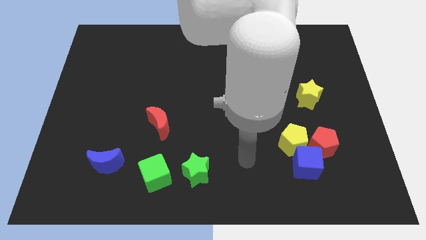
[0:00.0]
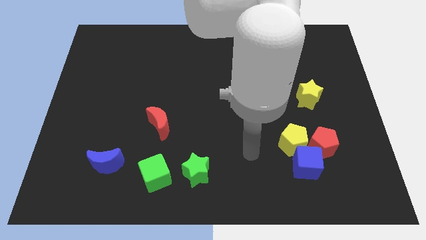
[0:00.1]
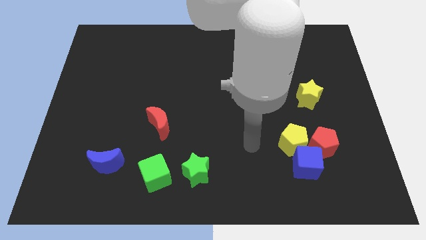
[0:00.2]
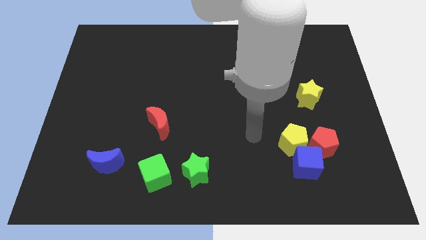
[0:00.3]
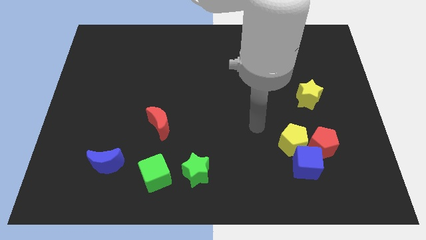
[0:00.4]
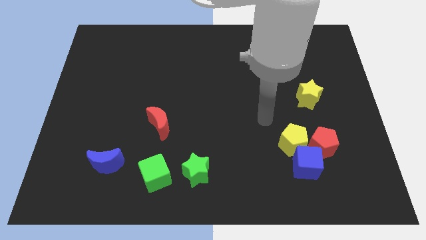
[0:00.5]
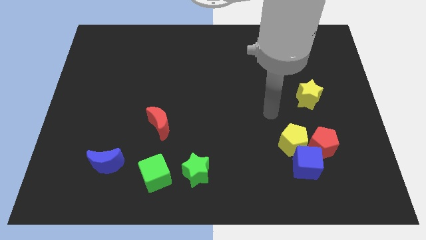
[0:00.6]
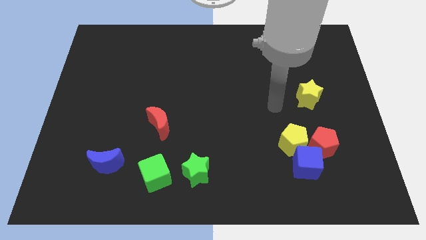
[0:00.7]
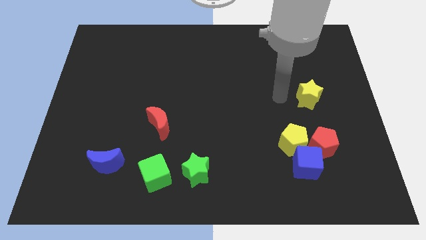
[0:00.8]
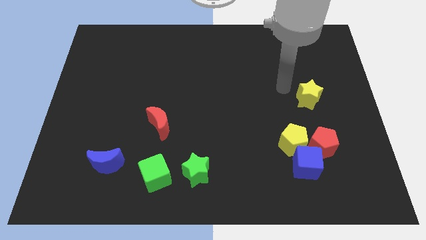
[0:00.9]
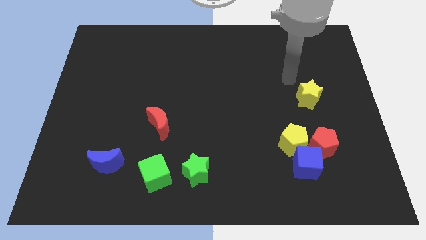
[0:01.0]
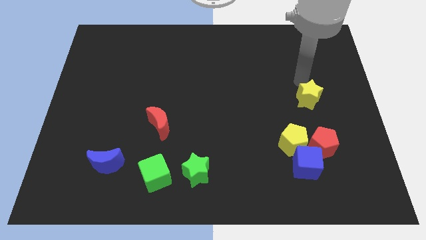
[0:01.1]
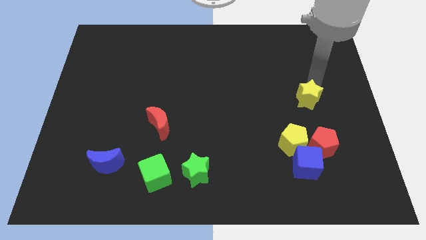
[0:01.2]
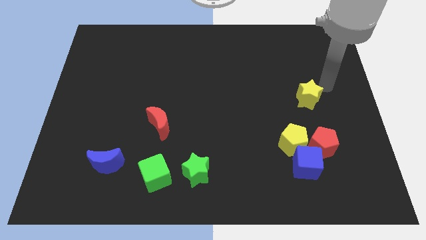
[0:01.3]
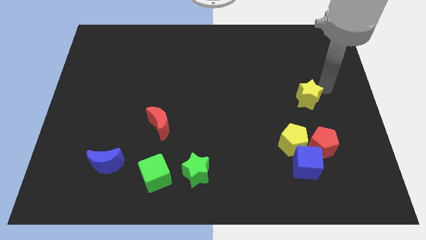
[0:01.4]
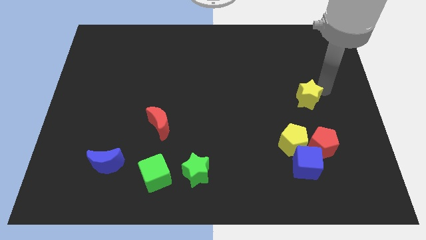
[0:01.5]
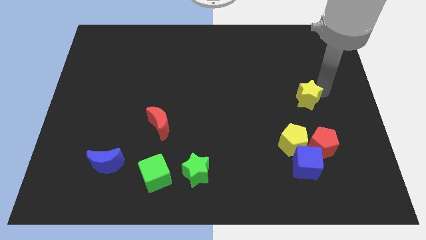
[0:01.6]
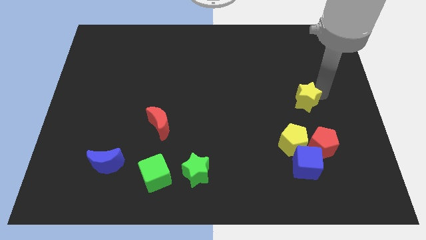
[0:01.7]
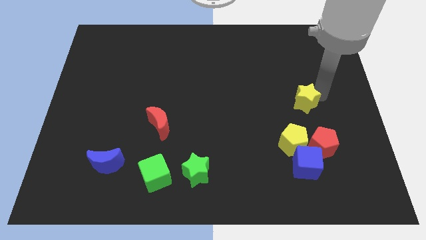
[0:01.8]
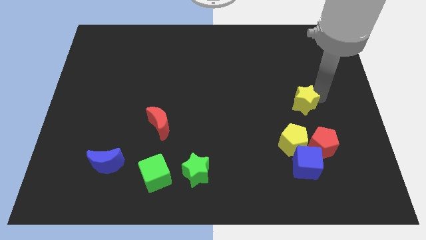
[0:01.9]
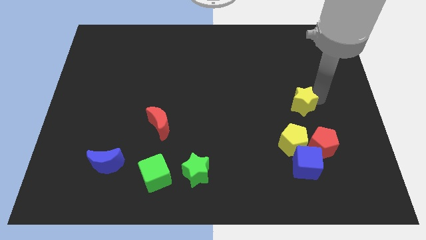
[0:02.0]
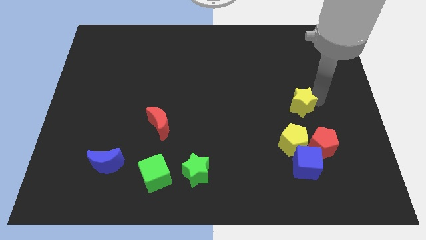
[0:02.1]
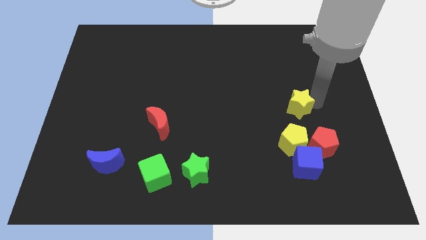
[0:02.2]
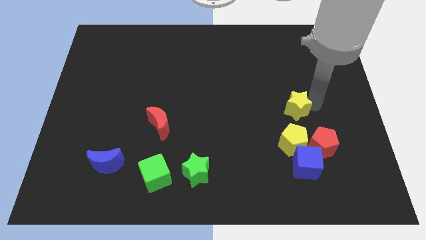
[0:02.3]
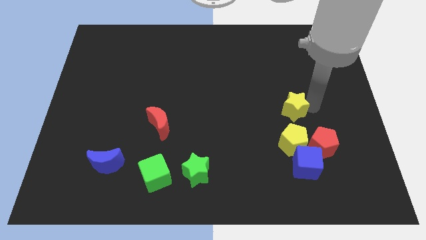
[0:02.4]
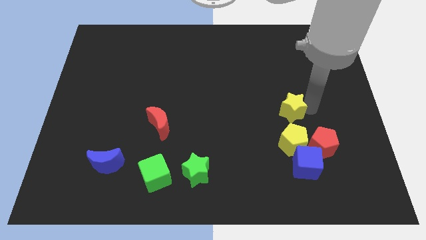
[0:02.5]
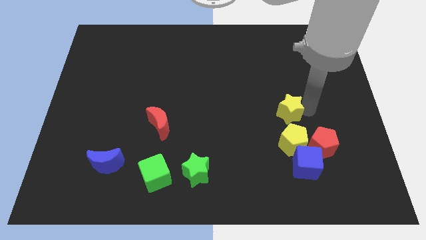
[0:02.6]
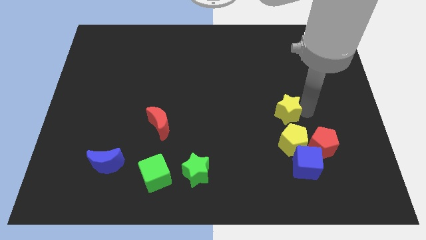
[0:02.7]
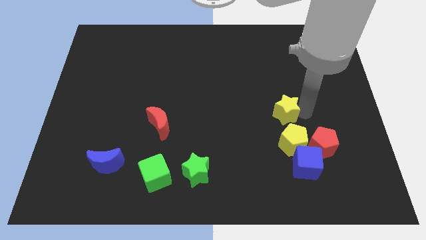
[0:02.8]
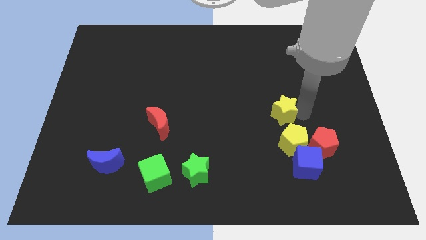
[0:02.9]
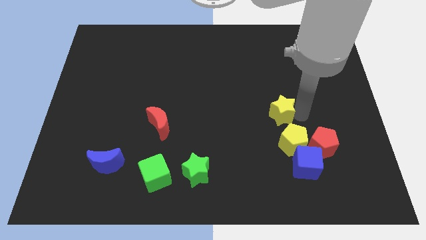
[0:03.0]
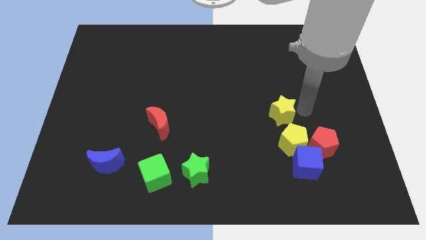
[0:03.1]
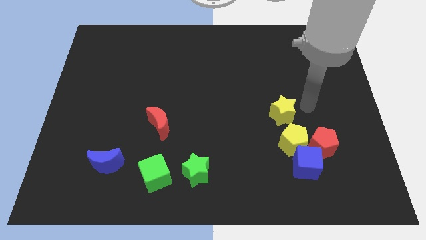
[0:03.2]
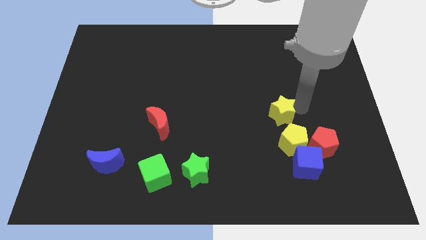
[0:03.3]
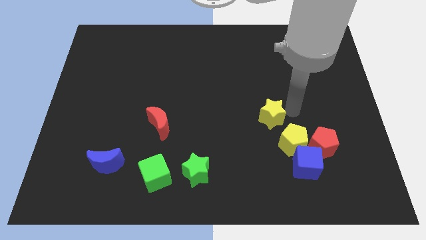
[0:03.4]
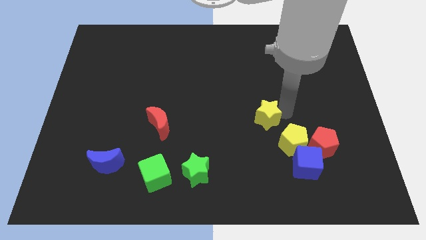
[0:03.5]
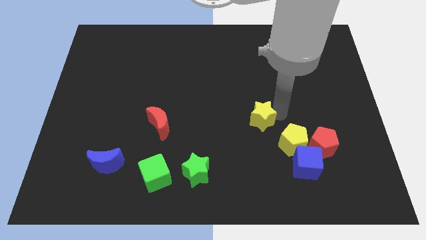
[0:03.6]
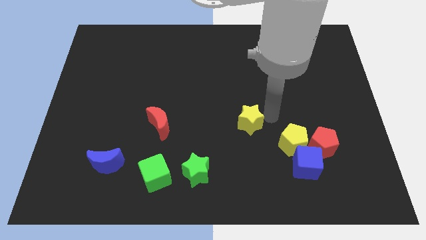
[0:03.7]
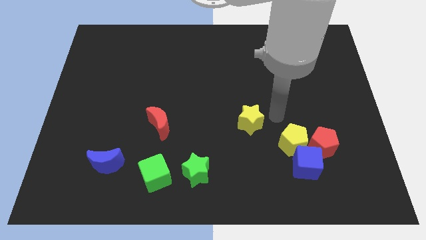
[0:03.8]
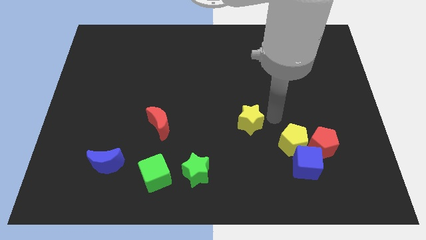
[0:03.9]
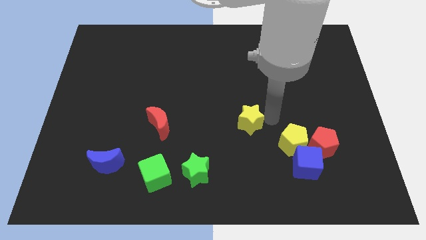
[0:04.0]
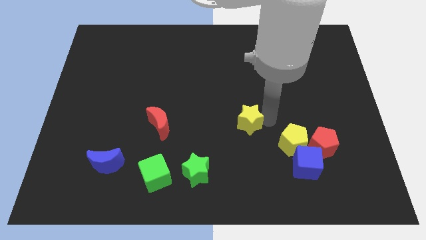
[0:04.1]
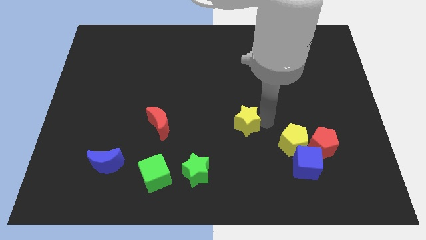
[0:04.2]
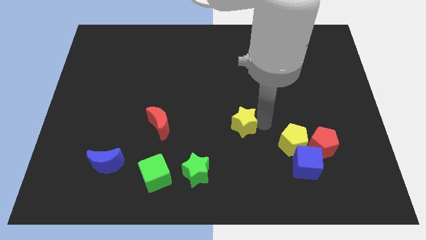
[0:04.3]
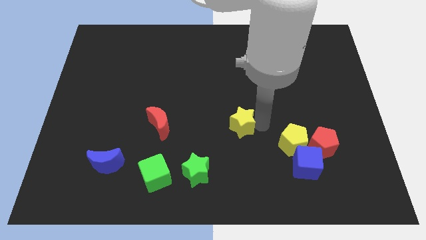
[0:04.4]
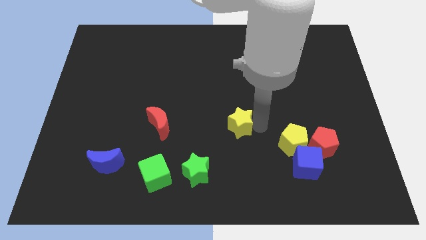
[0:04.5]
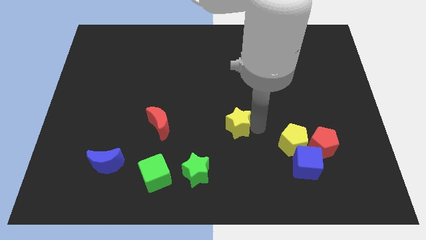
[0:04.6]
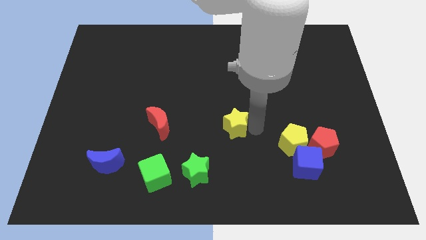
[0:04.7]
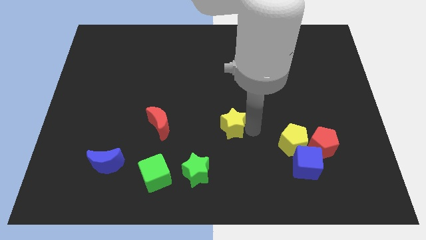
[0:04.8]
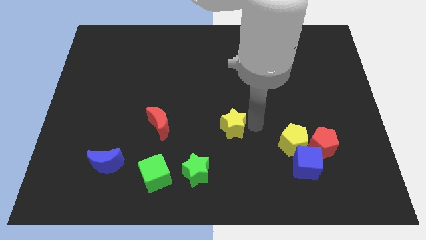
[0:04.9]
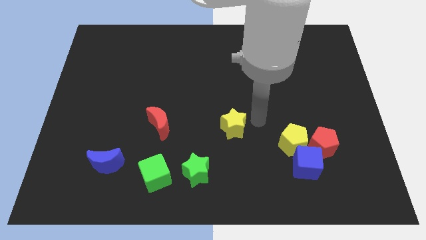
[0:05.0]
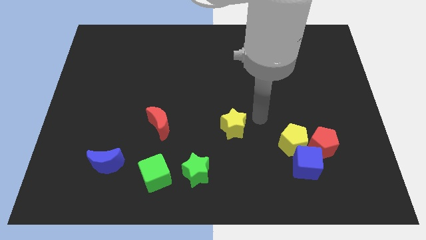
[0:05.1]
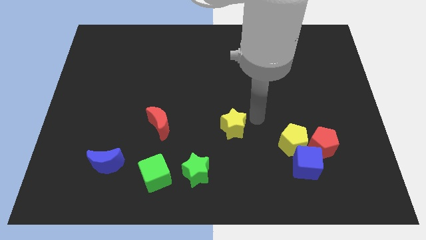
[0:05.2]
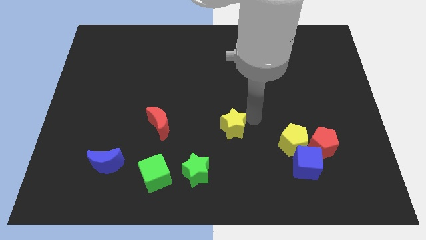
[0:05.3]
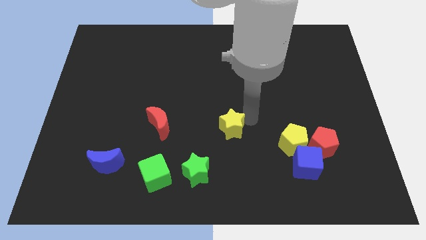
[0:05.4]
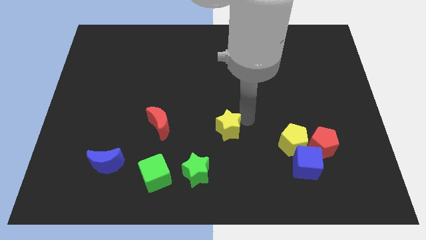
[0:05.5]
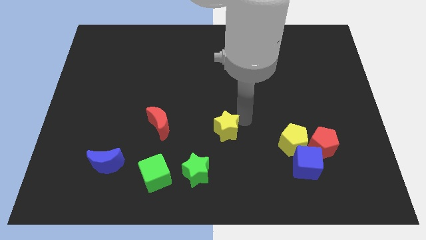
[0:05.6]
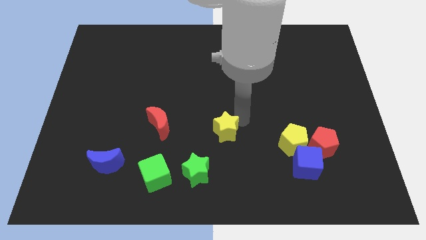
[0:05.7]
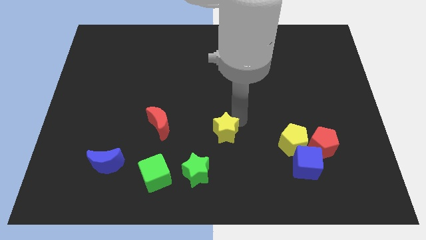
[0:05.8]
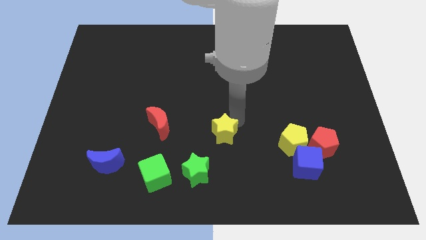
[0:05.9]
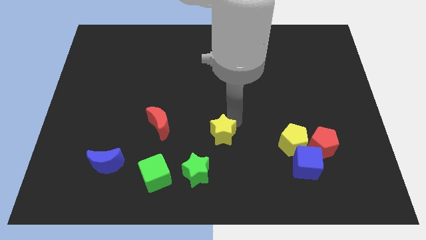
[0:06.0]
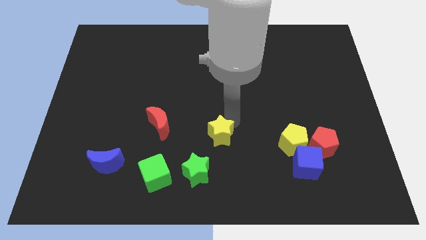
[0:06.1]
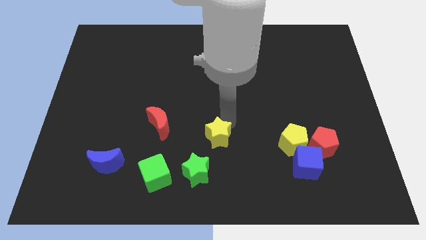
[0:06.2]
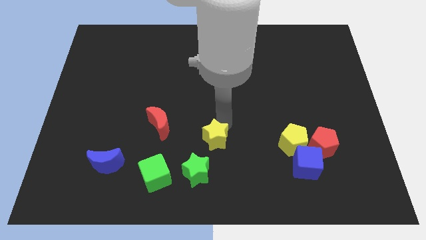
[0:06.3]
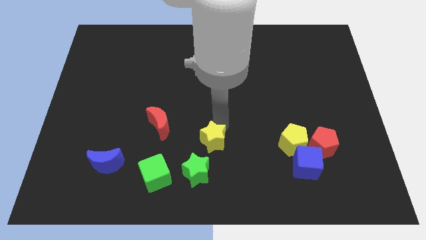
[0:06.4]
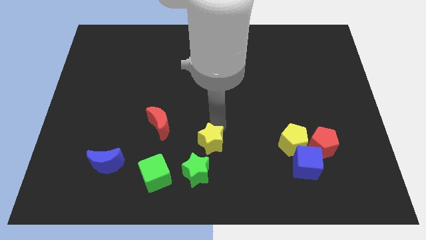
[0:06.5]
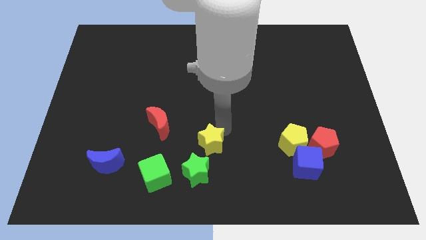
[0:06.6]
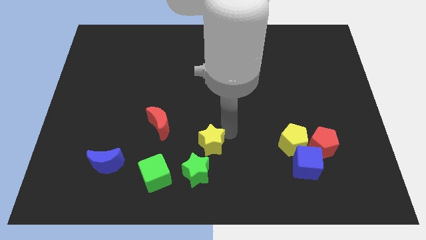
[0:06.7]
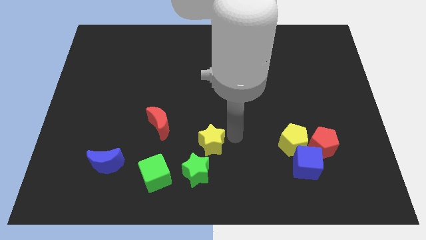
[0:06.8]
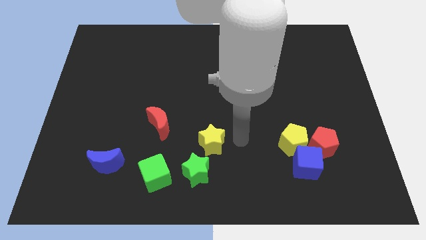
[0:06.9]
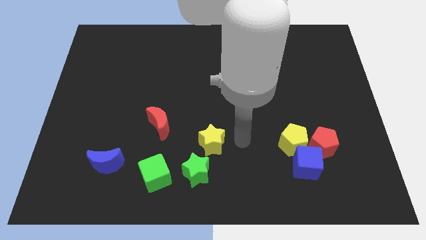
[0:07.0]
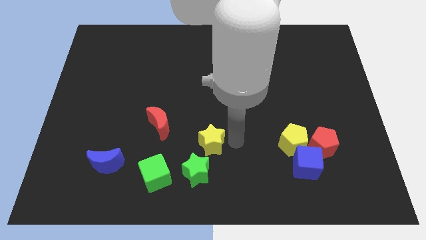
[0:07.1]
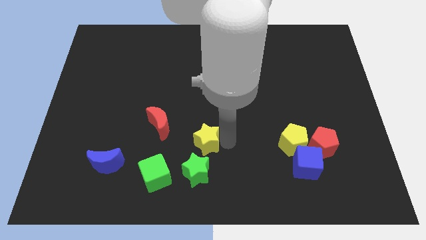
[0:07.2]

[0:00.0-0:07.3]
slide the yellow star to the bottom right of the red moon
